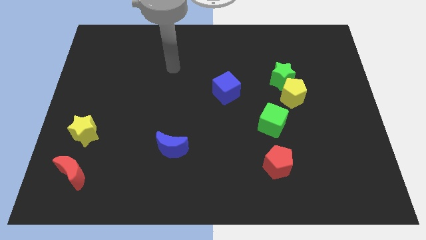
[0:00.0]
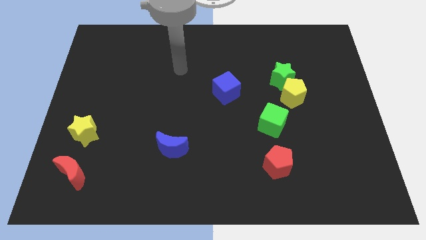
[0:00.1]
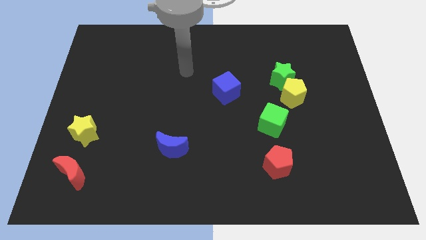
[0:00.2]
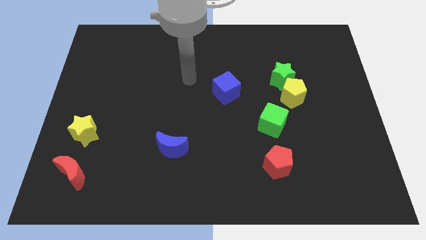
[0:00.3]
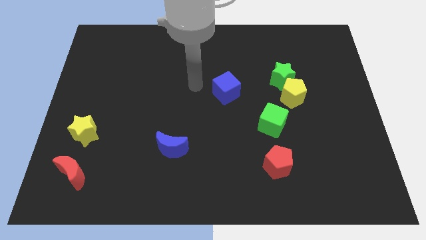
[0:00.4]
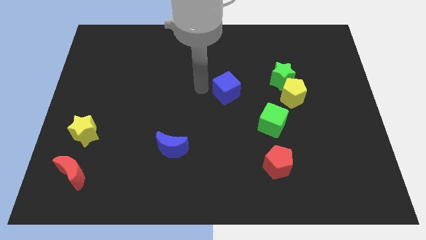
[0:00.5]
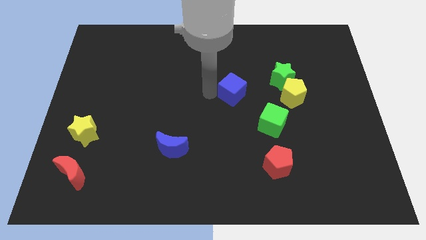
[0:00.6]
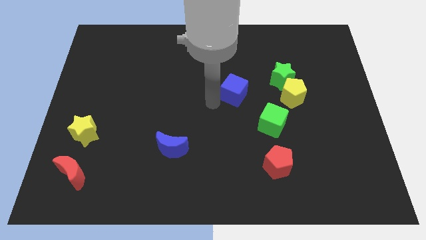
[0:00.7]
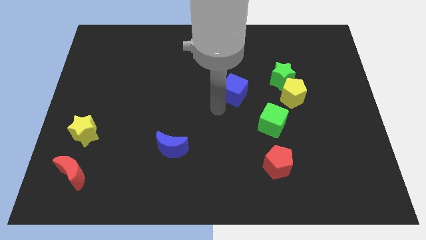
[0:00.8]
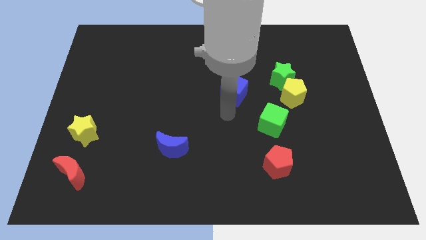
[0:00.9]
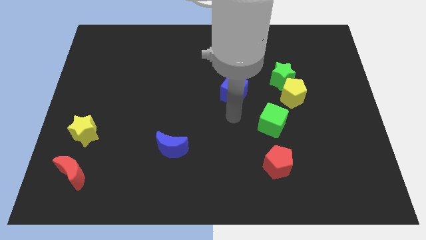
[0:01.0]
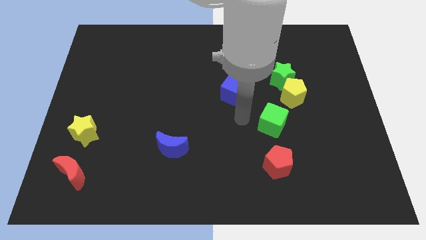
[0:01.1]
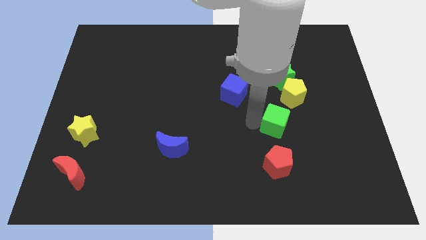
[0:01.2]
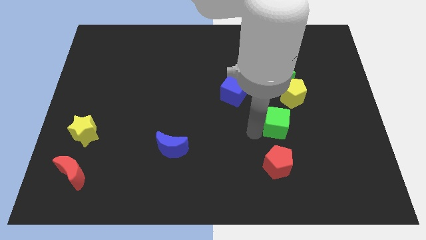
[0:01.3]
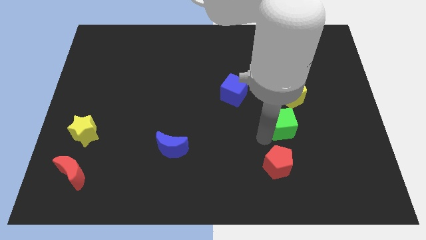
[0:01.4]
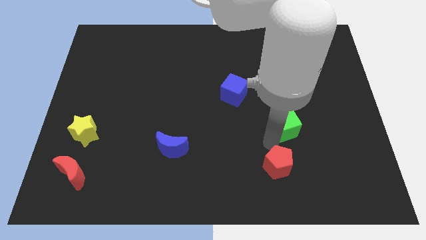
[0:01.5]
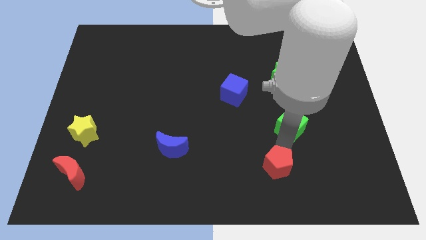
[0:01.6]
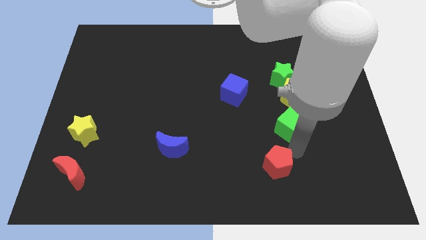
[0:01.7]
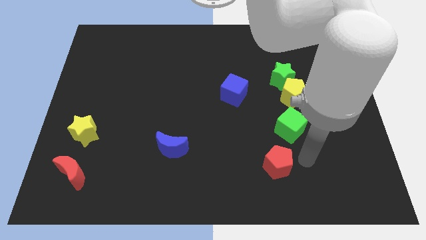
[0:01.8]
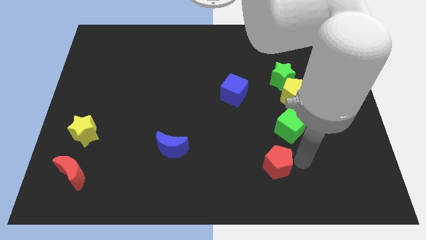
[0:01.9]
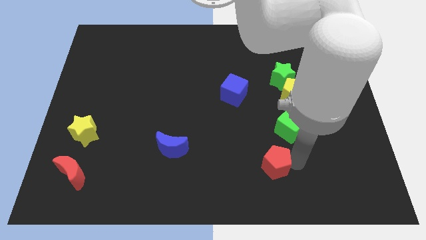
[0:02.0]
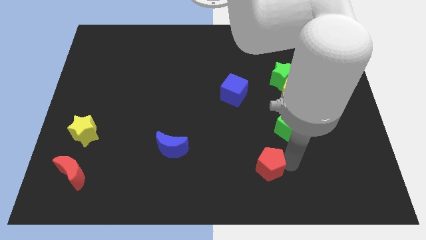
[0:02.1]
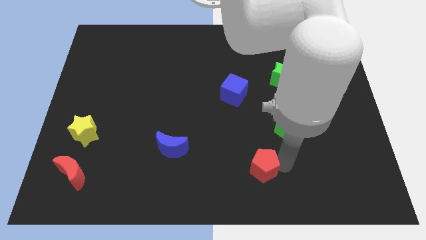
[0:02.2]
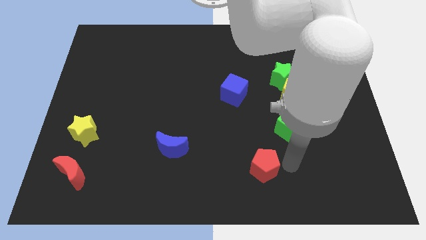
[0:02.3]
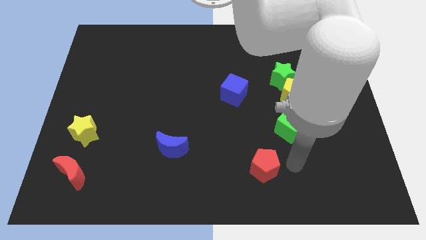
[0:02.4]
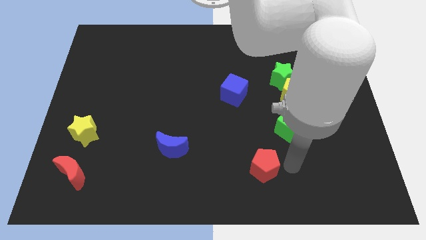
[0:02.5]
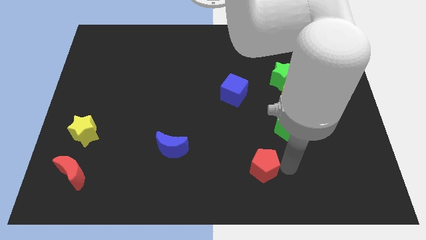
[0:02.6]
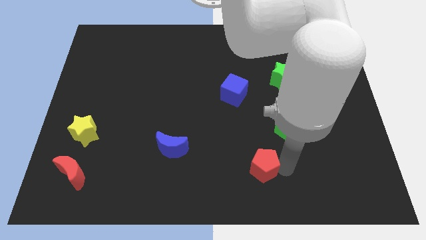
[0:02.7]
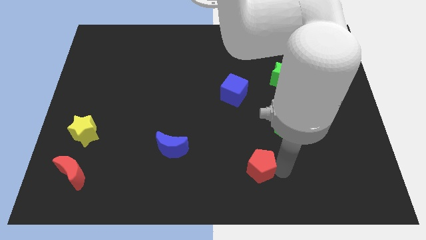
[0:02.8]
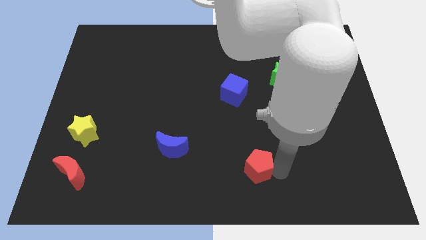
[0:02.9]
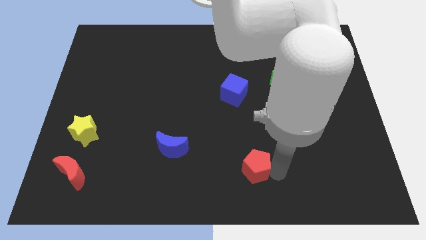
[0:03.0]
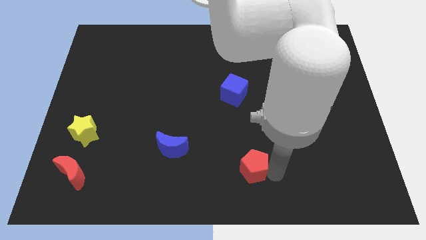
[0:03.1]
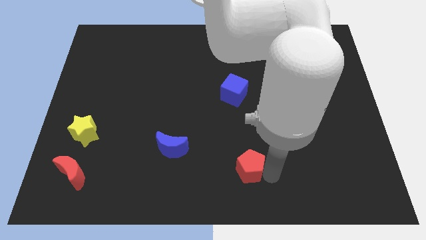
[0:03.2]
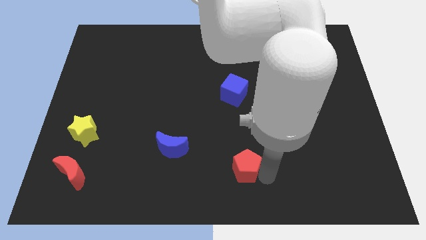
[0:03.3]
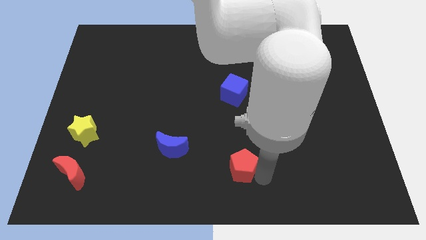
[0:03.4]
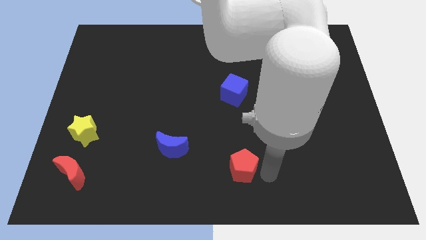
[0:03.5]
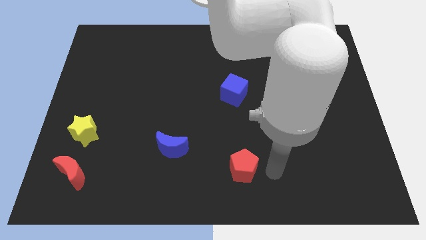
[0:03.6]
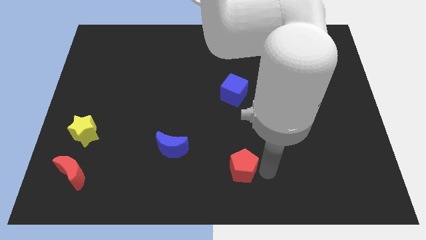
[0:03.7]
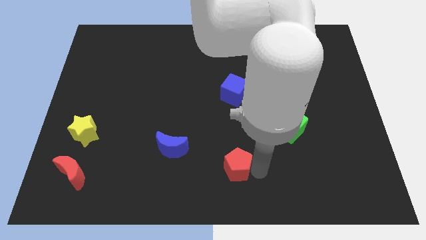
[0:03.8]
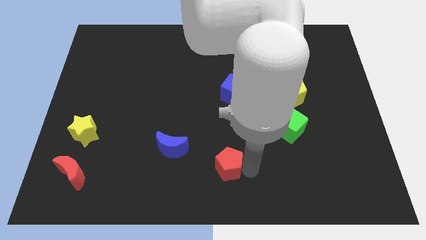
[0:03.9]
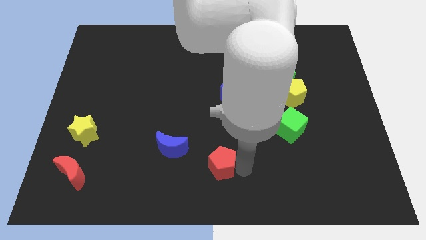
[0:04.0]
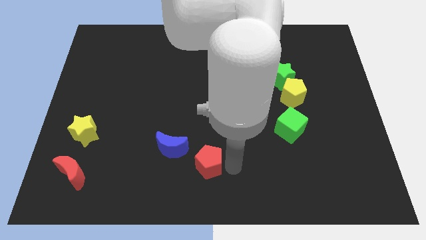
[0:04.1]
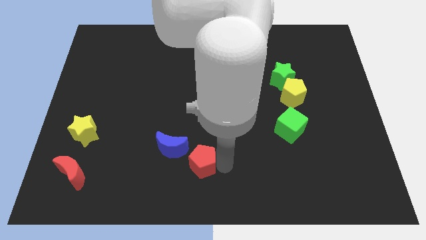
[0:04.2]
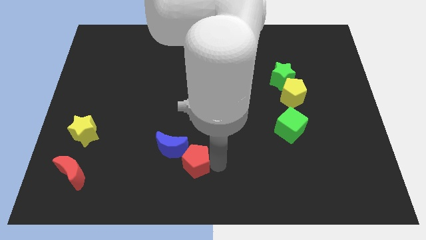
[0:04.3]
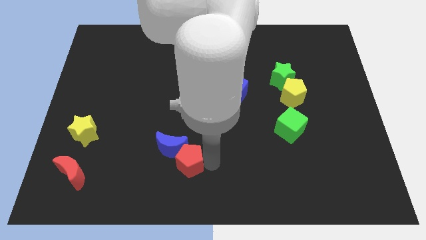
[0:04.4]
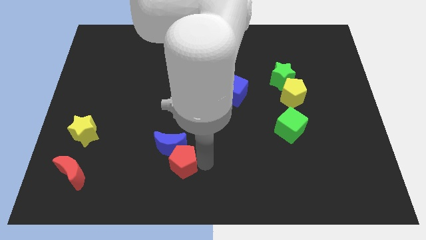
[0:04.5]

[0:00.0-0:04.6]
slide the red pentagon left

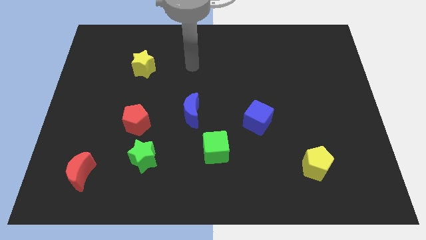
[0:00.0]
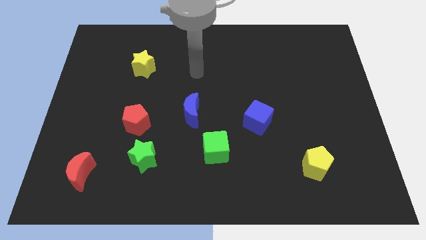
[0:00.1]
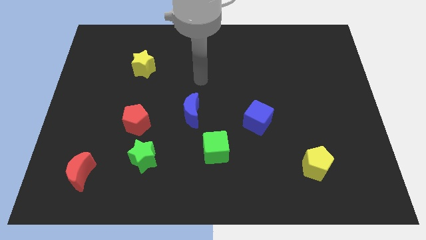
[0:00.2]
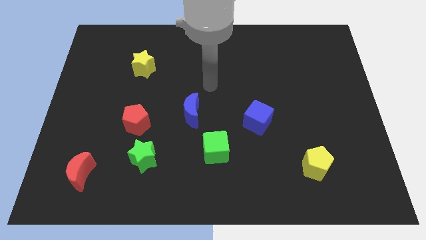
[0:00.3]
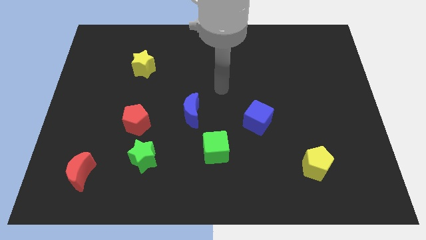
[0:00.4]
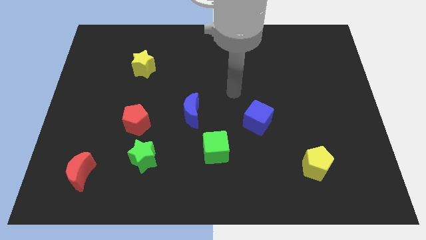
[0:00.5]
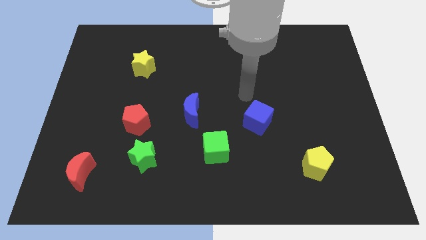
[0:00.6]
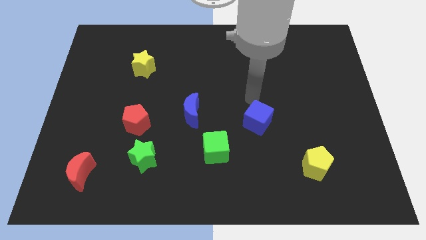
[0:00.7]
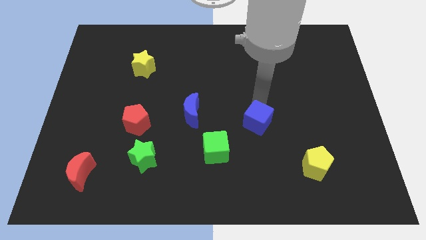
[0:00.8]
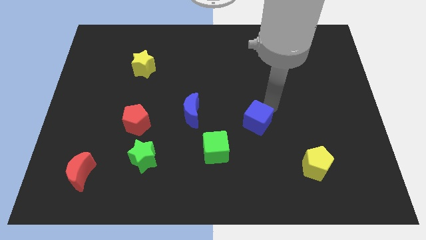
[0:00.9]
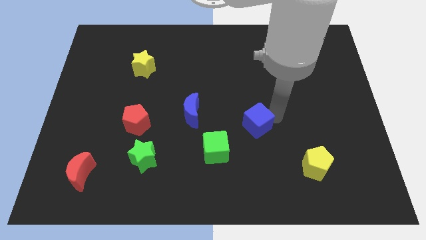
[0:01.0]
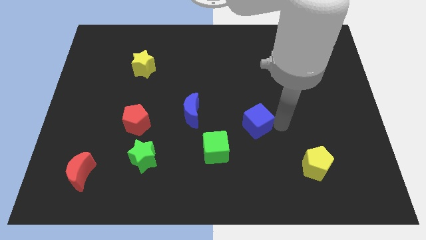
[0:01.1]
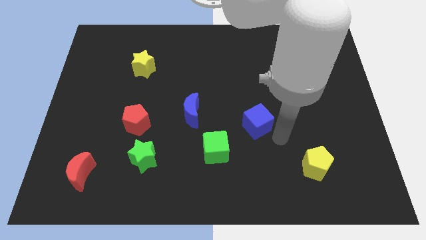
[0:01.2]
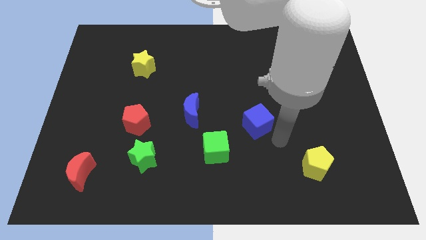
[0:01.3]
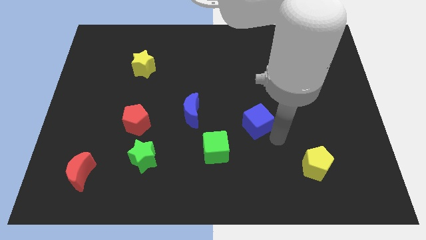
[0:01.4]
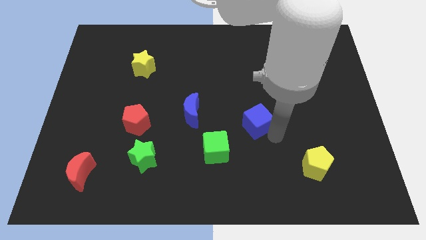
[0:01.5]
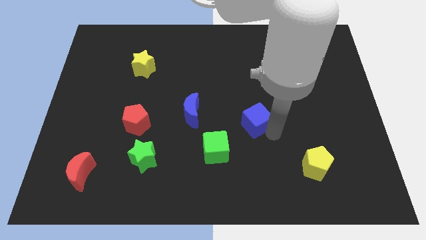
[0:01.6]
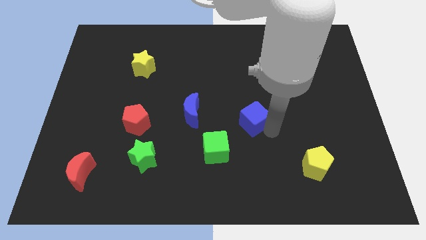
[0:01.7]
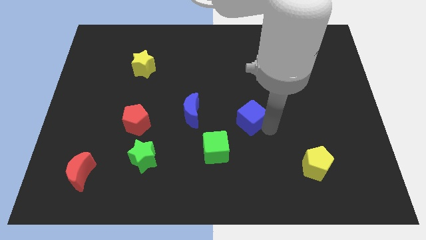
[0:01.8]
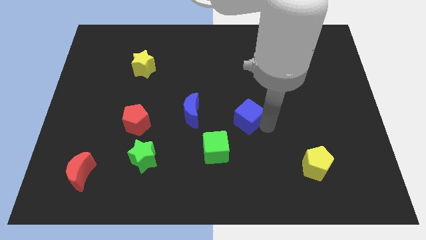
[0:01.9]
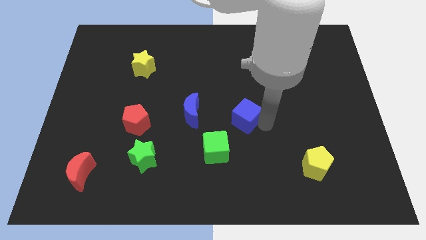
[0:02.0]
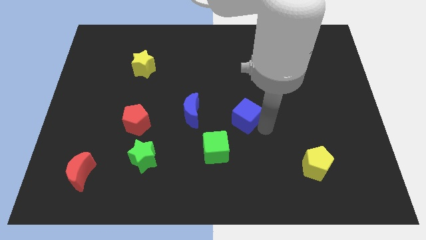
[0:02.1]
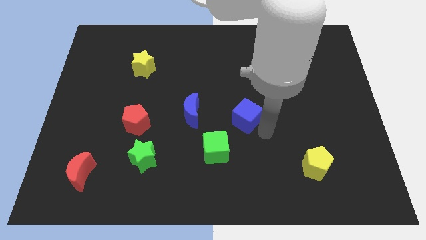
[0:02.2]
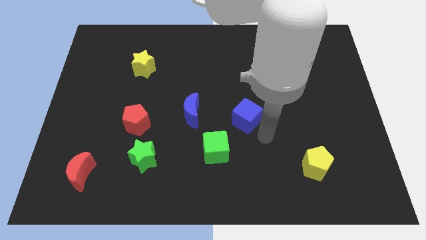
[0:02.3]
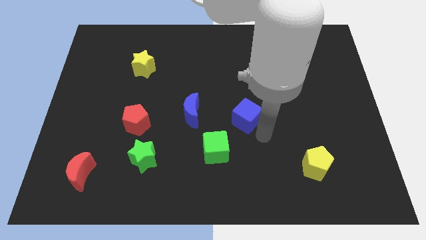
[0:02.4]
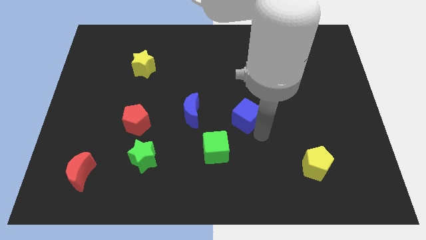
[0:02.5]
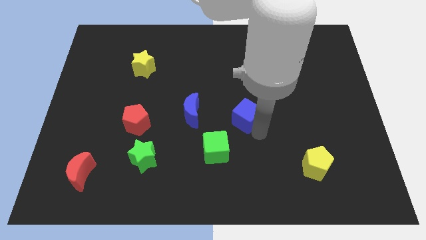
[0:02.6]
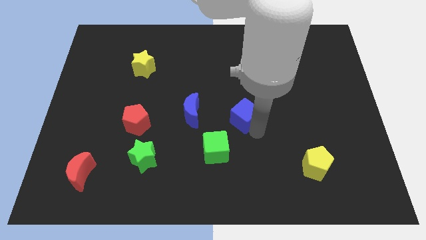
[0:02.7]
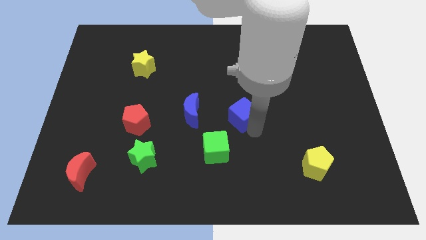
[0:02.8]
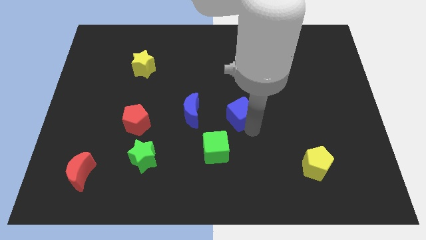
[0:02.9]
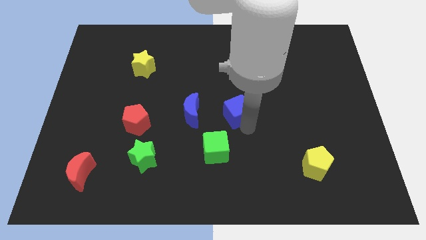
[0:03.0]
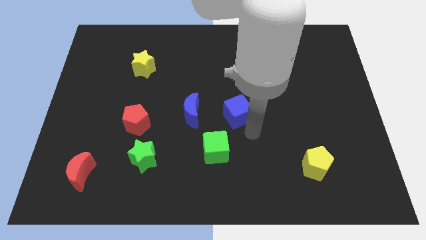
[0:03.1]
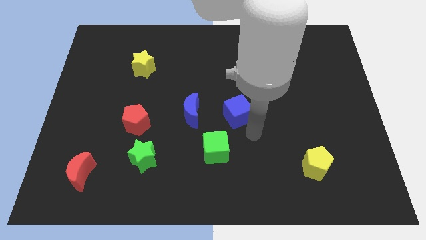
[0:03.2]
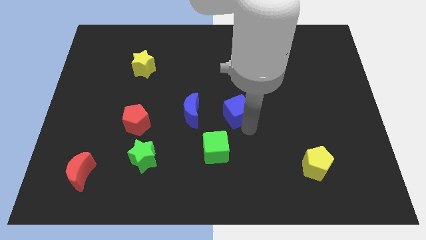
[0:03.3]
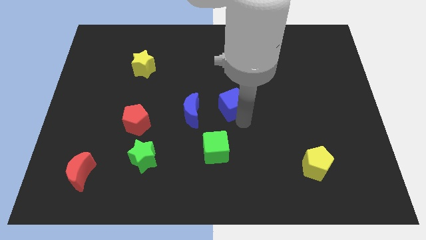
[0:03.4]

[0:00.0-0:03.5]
slightly move the blue cube upwards and to the left
